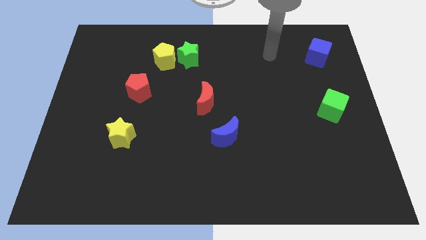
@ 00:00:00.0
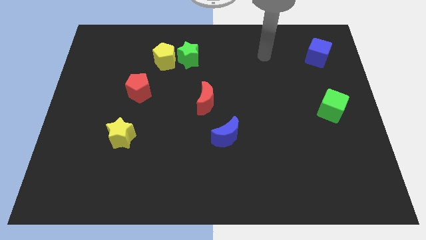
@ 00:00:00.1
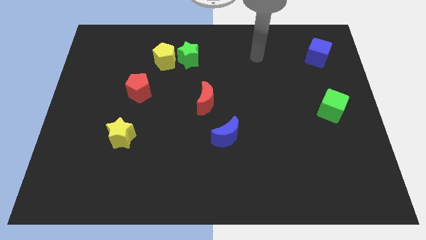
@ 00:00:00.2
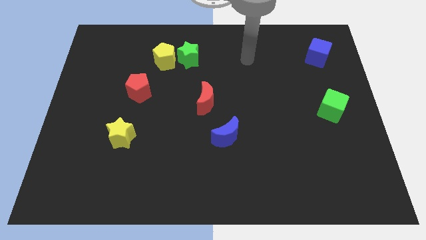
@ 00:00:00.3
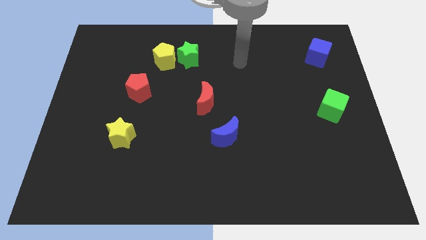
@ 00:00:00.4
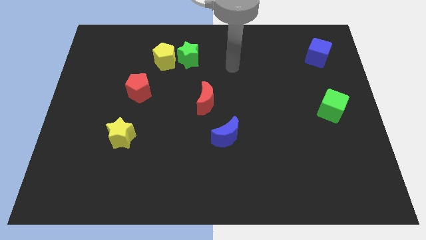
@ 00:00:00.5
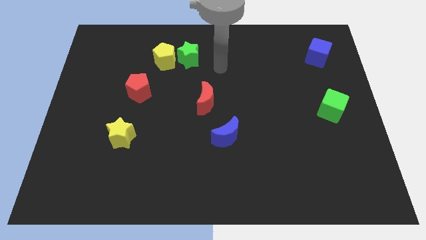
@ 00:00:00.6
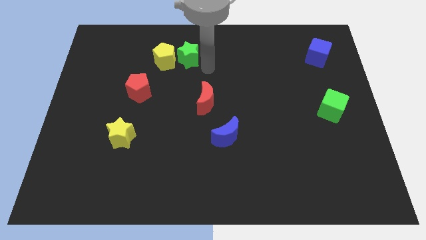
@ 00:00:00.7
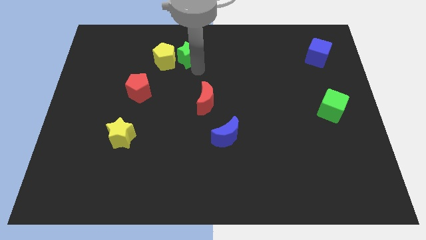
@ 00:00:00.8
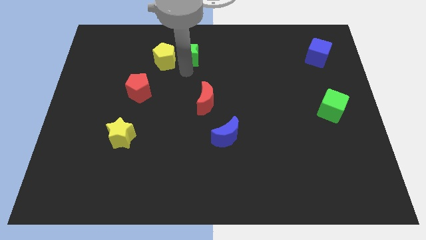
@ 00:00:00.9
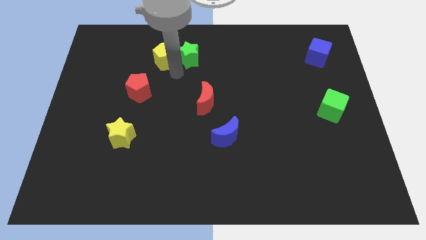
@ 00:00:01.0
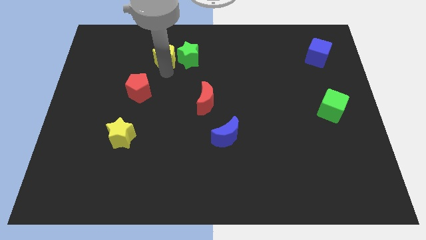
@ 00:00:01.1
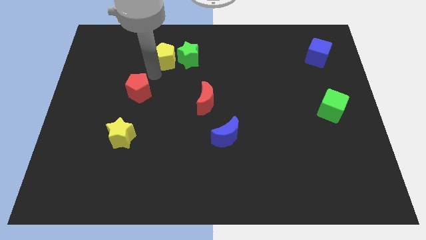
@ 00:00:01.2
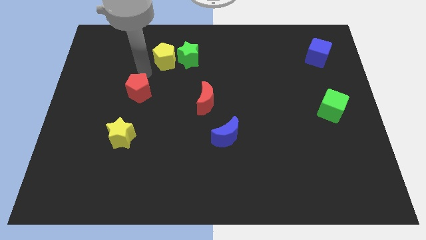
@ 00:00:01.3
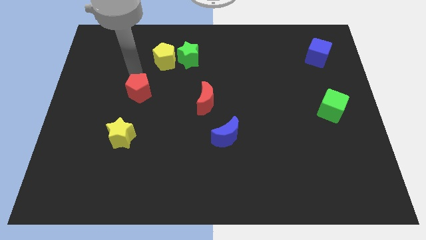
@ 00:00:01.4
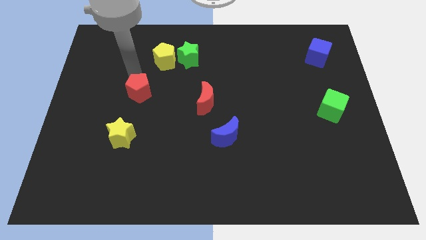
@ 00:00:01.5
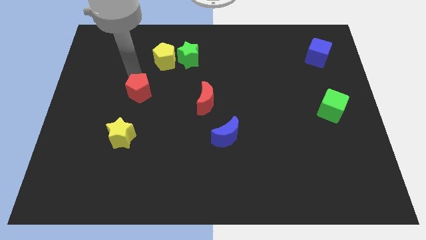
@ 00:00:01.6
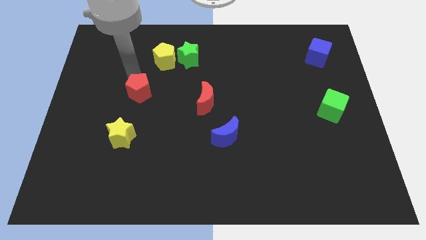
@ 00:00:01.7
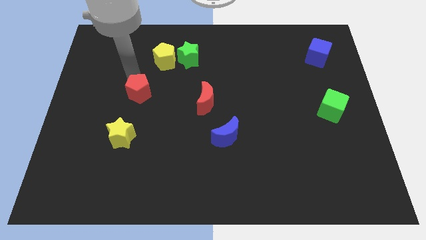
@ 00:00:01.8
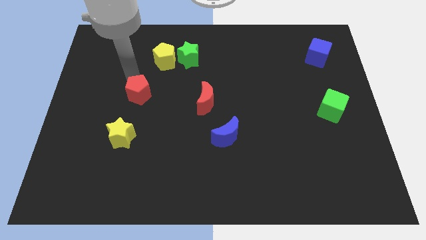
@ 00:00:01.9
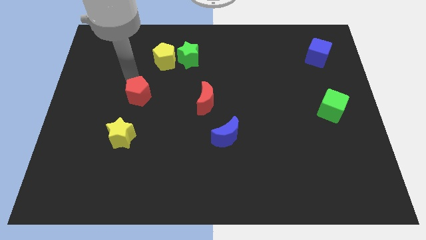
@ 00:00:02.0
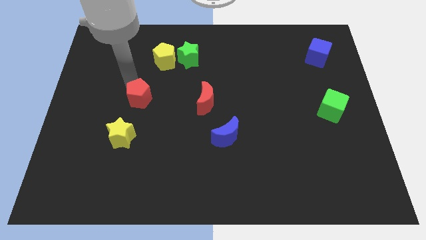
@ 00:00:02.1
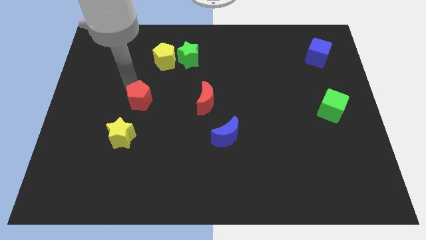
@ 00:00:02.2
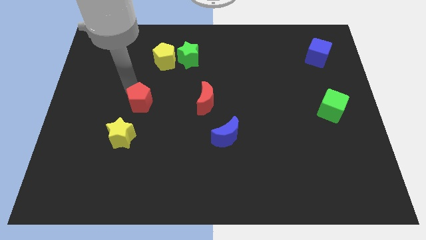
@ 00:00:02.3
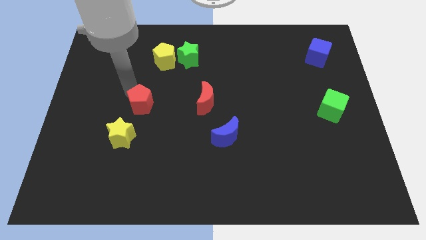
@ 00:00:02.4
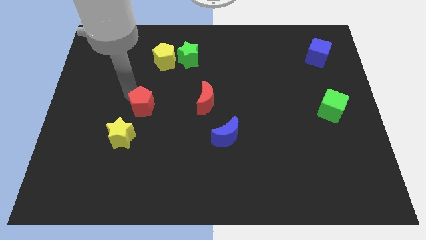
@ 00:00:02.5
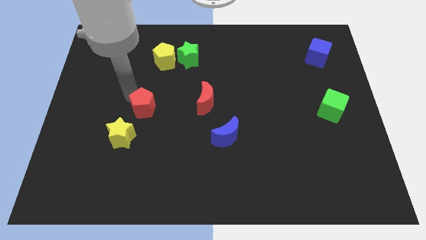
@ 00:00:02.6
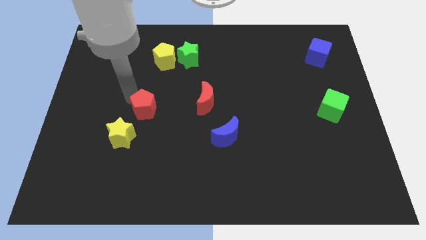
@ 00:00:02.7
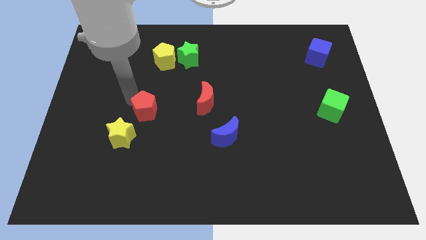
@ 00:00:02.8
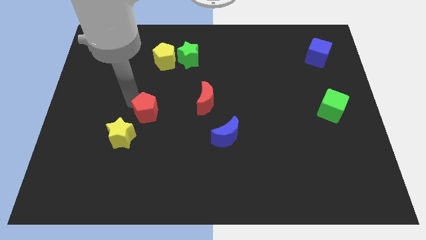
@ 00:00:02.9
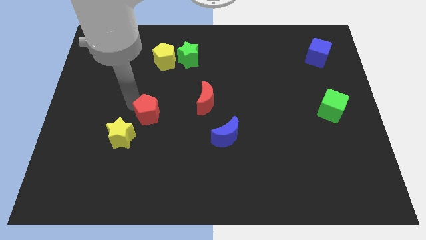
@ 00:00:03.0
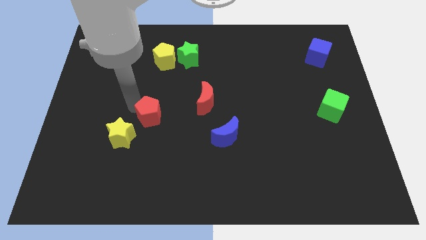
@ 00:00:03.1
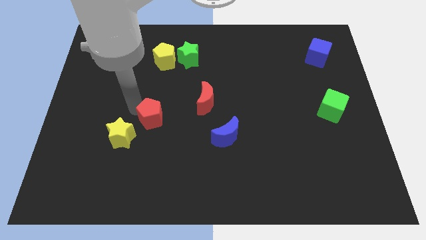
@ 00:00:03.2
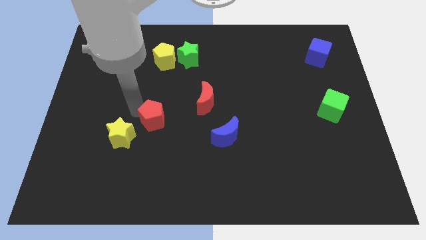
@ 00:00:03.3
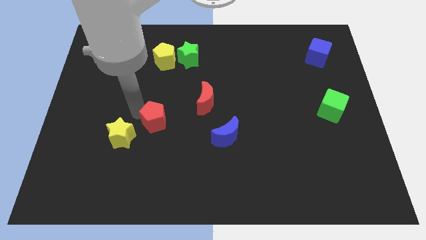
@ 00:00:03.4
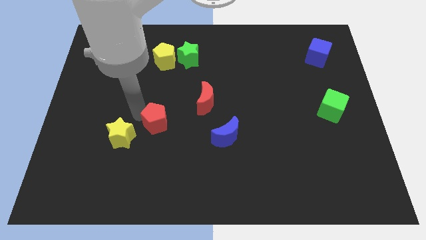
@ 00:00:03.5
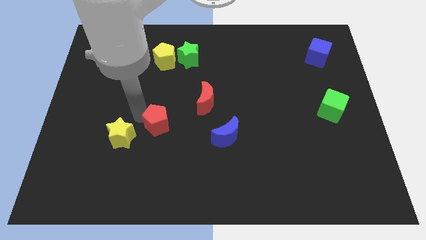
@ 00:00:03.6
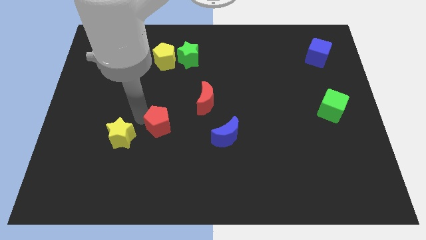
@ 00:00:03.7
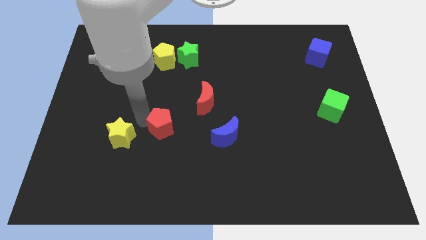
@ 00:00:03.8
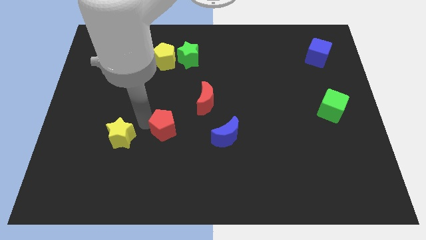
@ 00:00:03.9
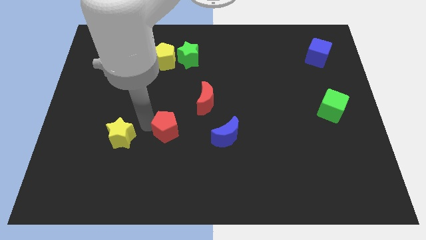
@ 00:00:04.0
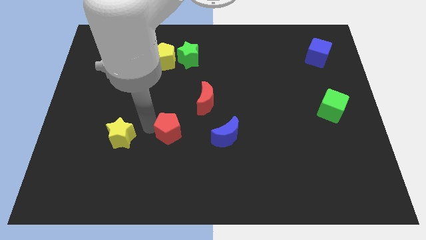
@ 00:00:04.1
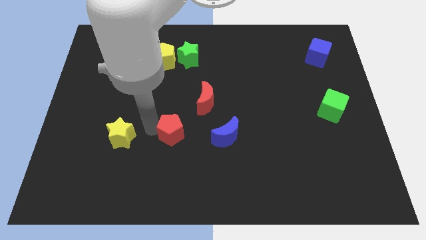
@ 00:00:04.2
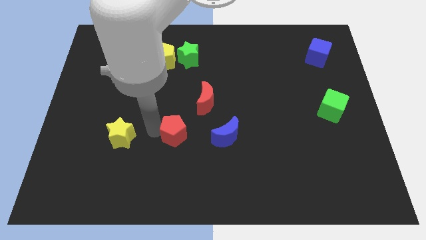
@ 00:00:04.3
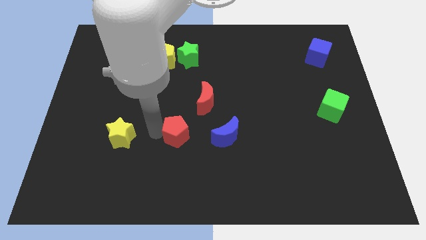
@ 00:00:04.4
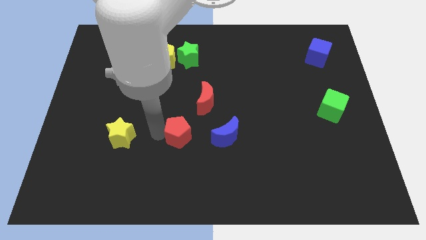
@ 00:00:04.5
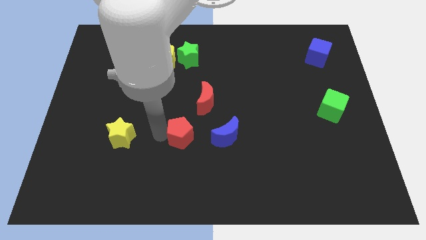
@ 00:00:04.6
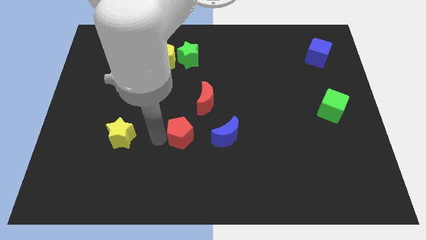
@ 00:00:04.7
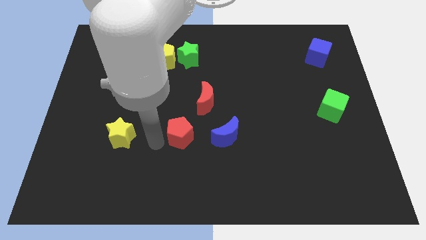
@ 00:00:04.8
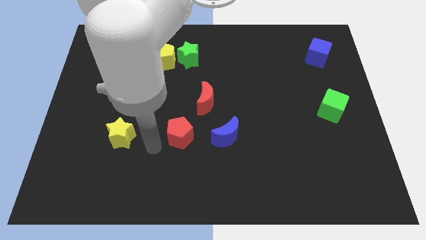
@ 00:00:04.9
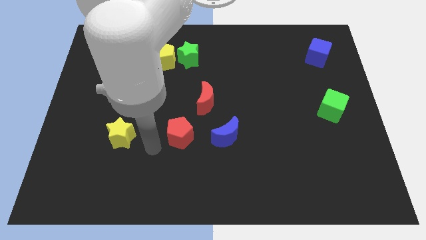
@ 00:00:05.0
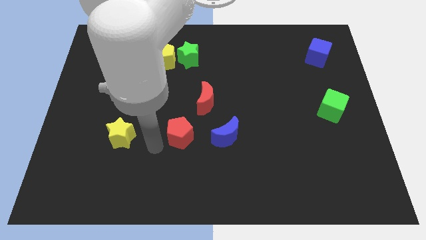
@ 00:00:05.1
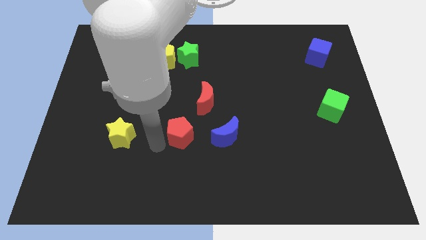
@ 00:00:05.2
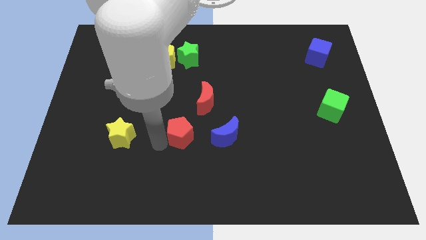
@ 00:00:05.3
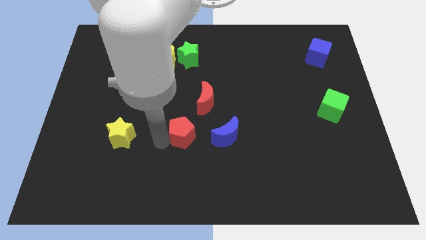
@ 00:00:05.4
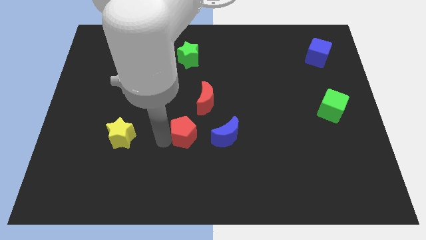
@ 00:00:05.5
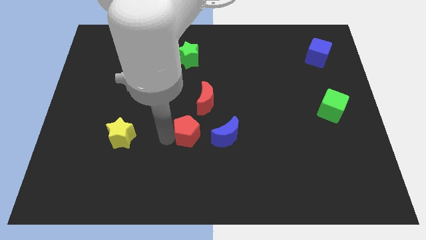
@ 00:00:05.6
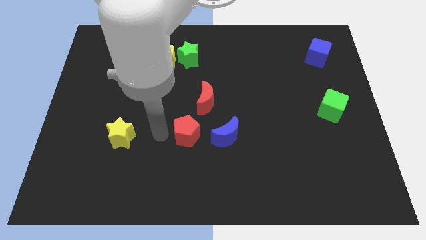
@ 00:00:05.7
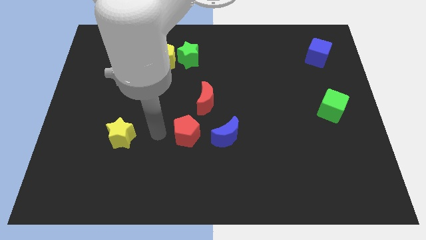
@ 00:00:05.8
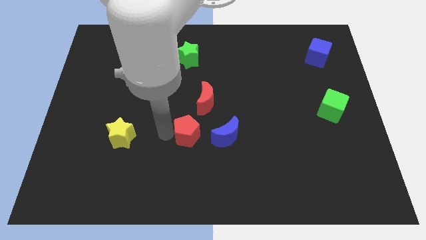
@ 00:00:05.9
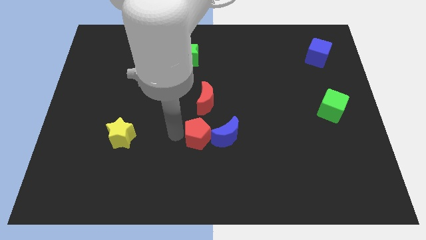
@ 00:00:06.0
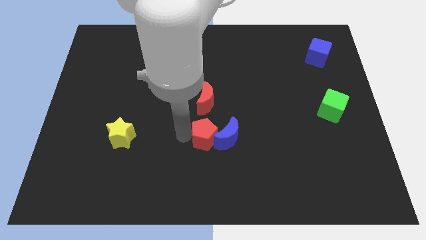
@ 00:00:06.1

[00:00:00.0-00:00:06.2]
move the red pentagon next to the blue moon
